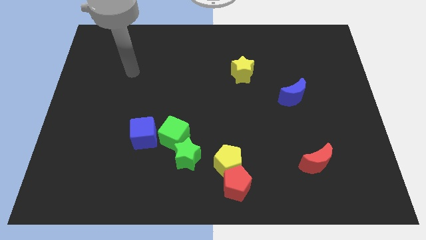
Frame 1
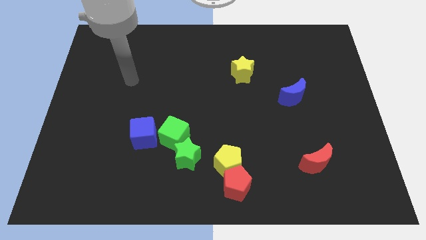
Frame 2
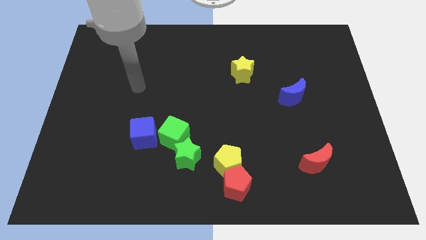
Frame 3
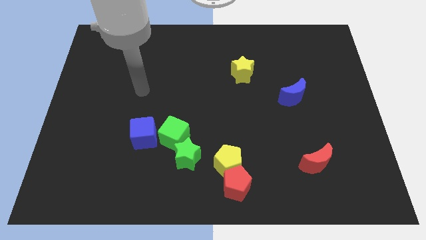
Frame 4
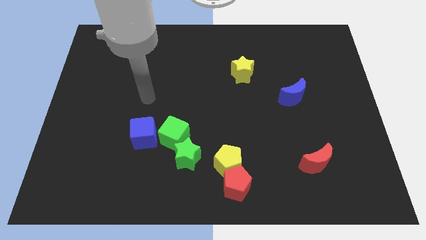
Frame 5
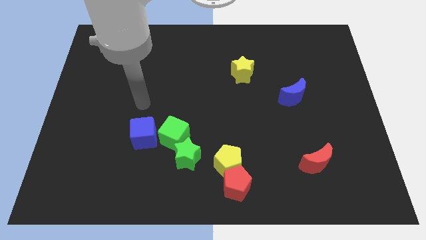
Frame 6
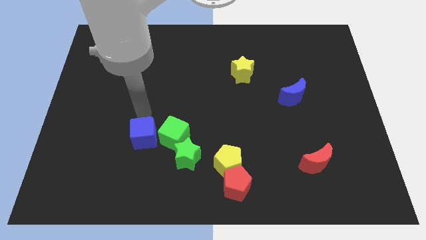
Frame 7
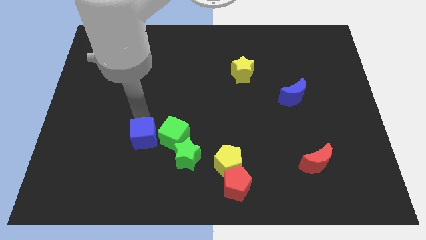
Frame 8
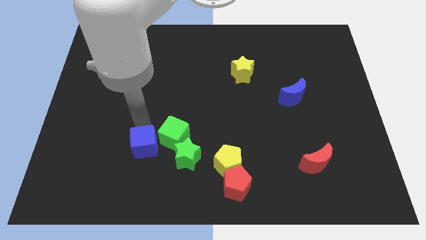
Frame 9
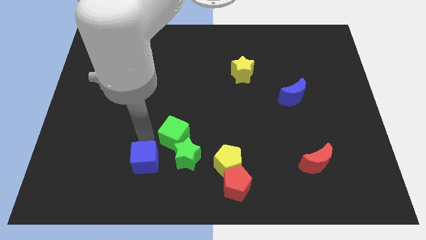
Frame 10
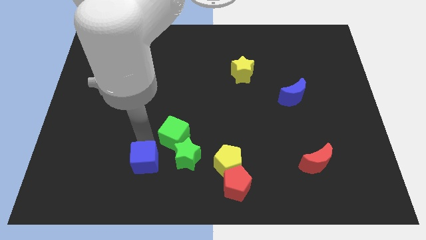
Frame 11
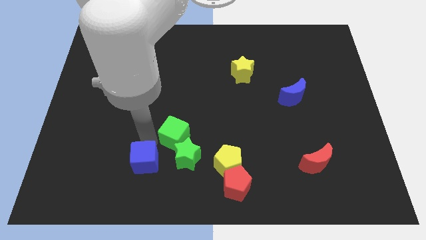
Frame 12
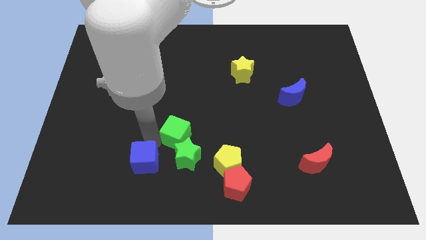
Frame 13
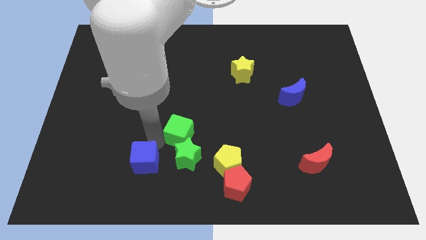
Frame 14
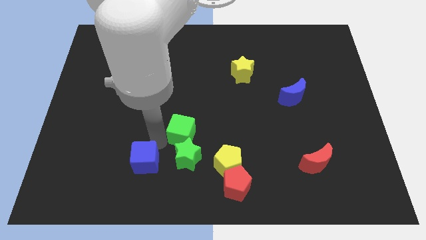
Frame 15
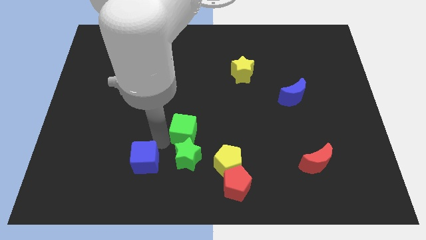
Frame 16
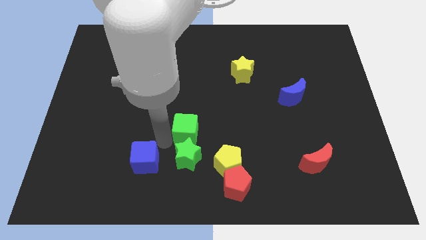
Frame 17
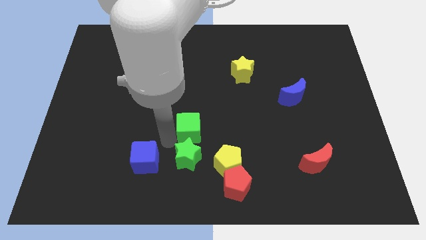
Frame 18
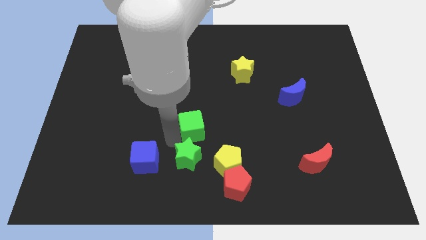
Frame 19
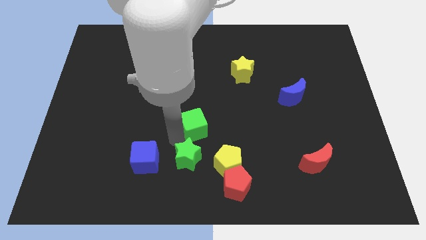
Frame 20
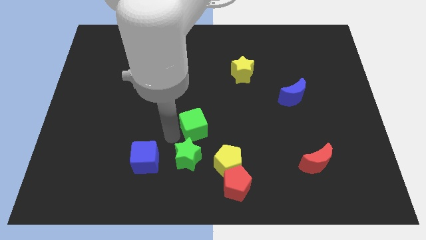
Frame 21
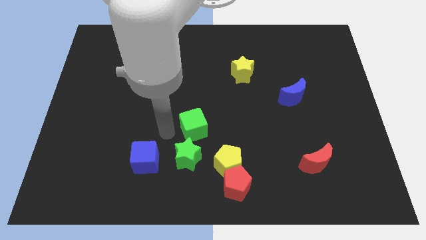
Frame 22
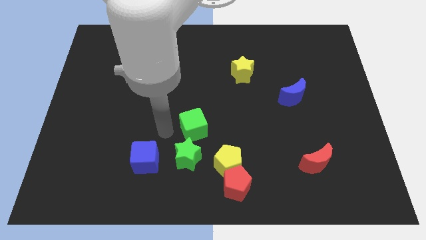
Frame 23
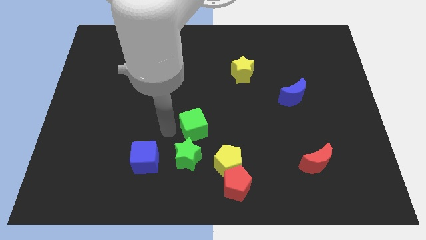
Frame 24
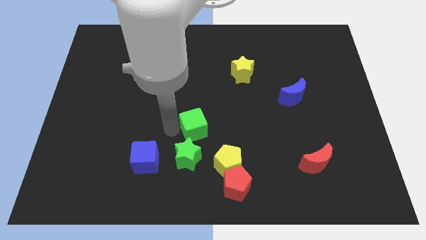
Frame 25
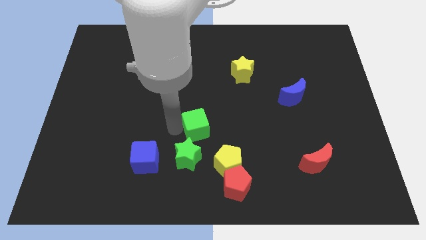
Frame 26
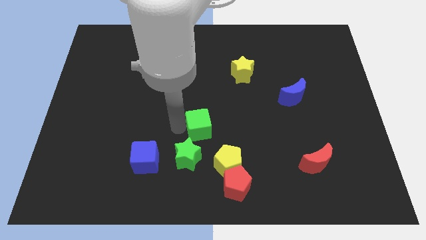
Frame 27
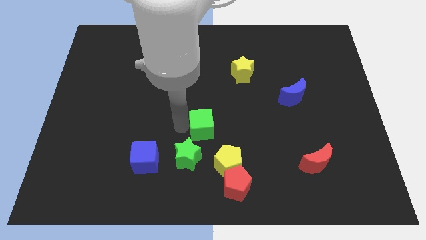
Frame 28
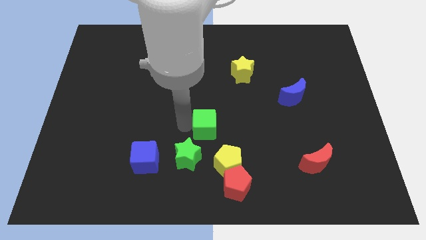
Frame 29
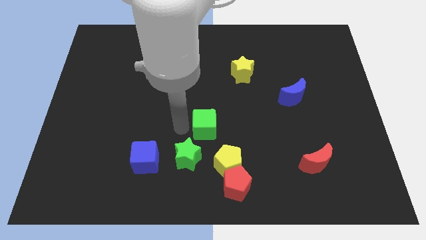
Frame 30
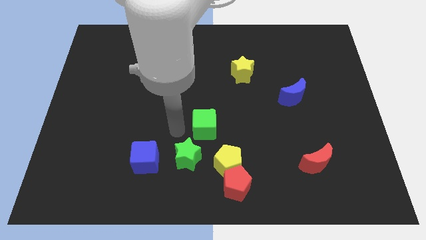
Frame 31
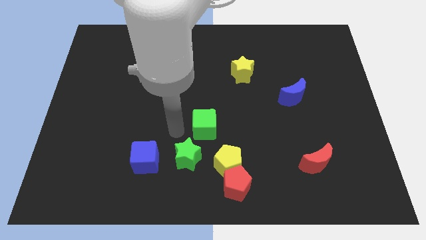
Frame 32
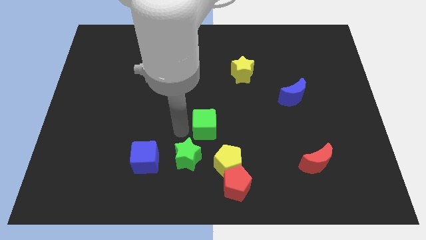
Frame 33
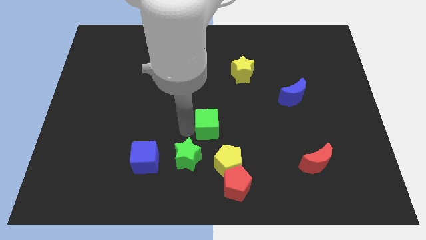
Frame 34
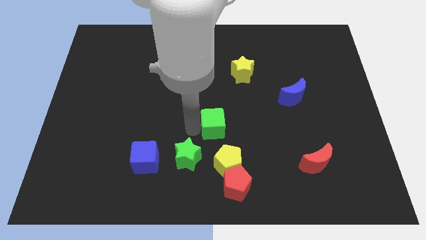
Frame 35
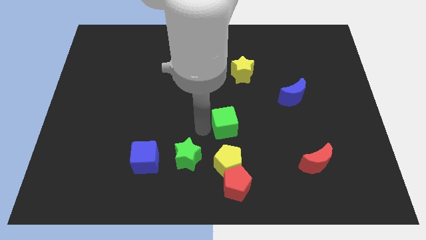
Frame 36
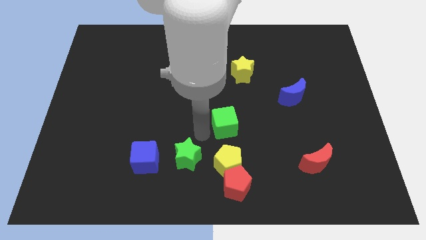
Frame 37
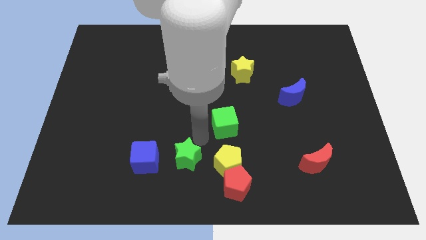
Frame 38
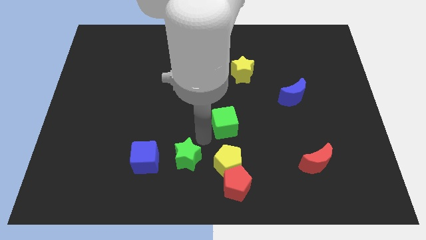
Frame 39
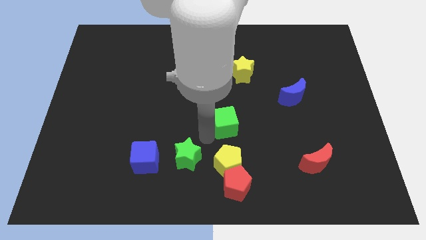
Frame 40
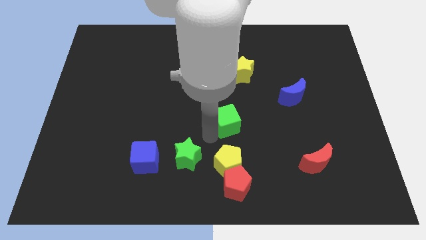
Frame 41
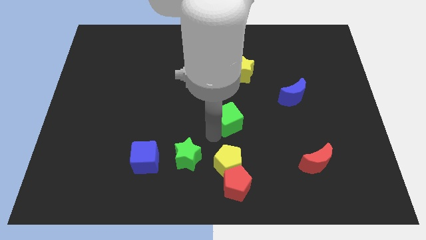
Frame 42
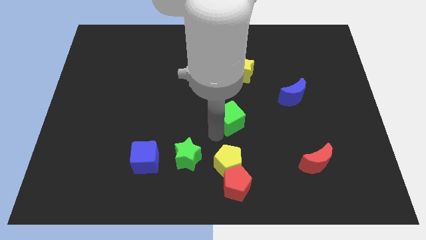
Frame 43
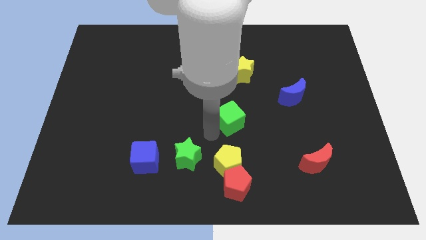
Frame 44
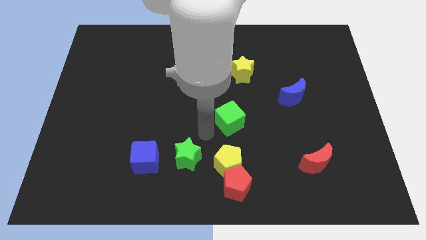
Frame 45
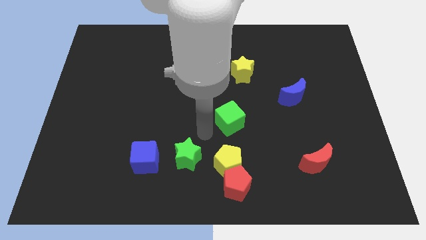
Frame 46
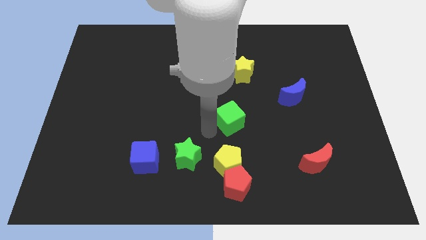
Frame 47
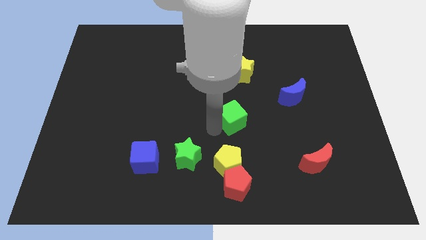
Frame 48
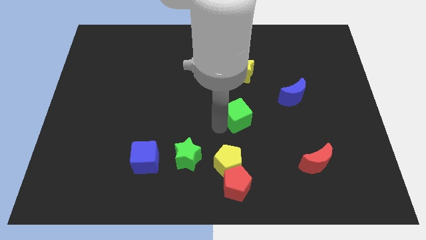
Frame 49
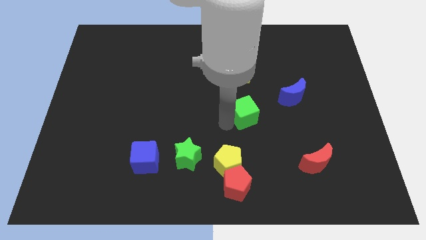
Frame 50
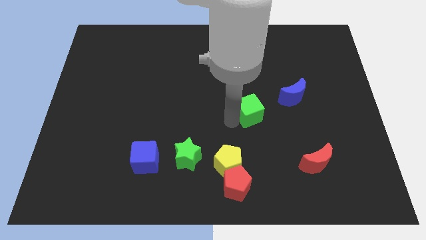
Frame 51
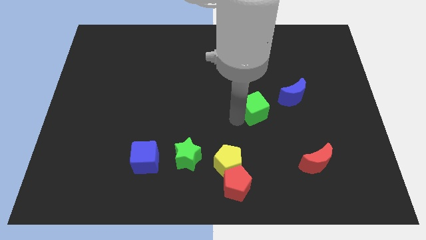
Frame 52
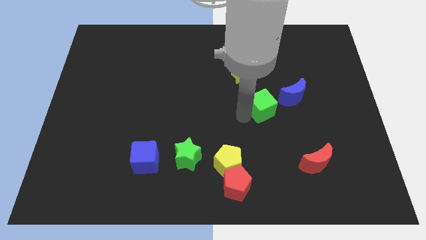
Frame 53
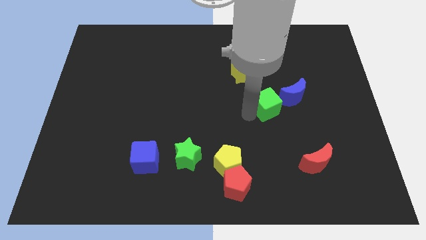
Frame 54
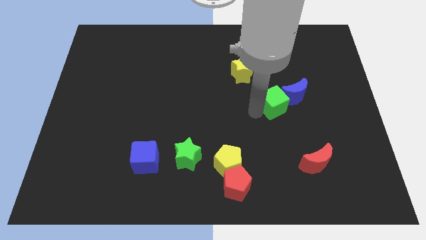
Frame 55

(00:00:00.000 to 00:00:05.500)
slide the green cube towards the blue moon

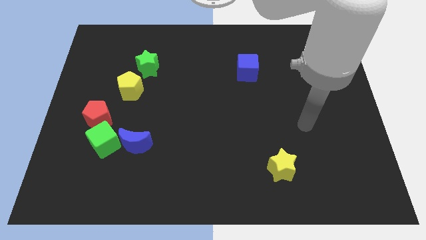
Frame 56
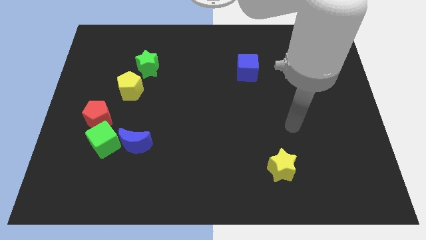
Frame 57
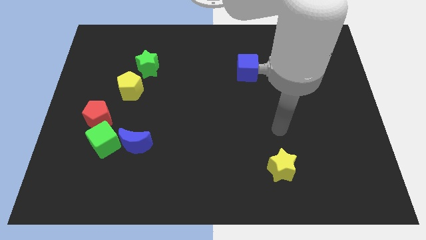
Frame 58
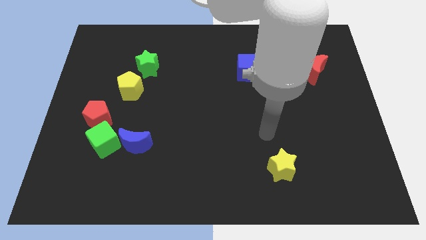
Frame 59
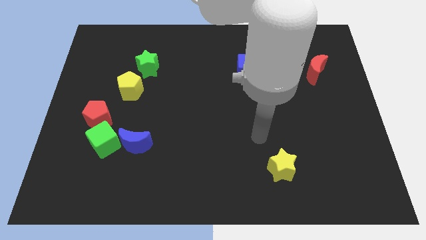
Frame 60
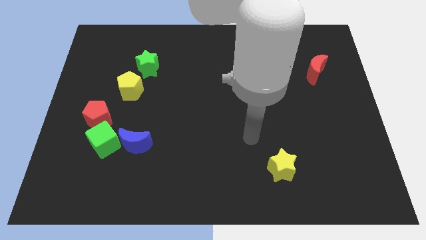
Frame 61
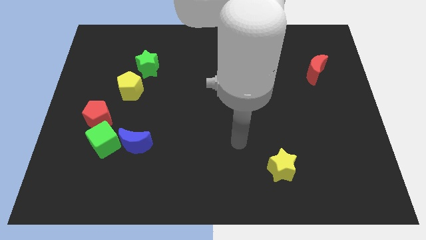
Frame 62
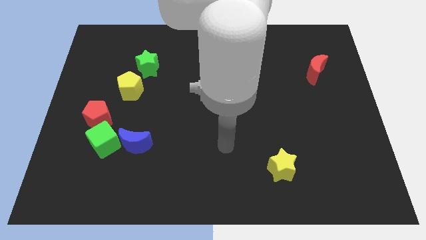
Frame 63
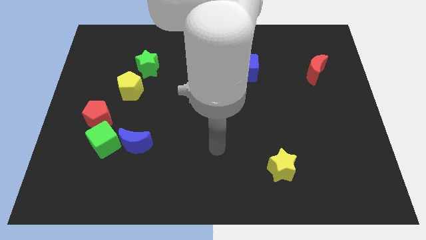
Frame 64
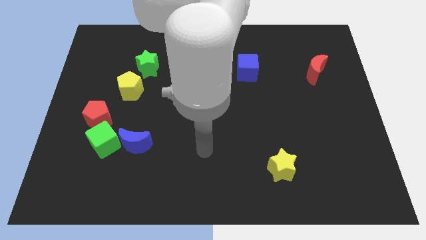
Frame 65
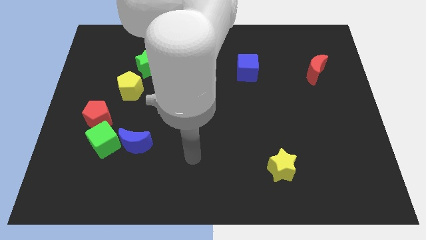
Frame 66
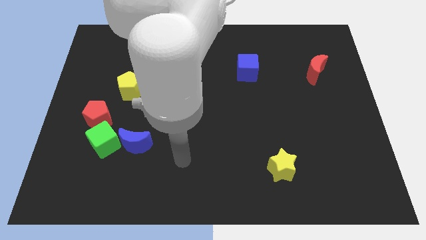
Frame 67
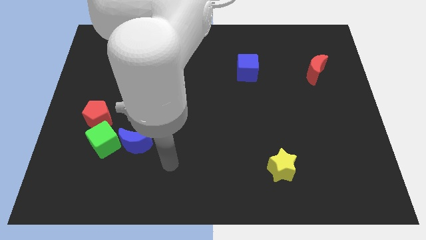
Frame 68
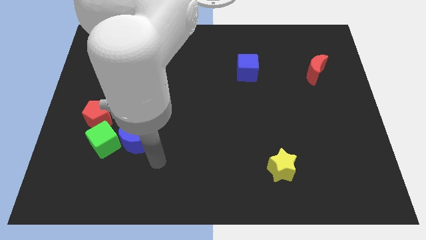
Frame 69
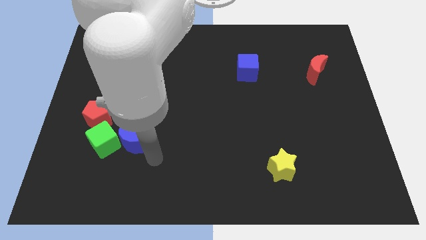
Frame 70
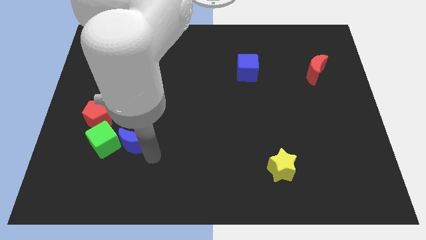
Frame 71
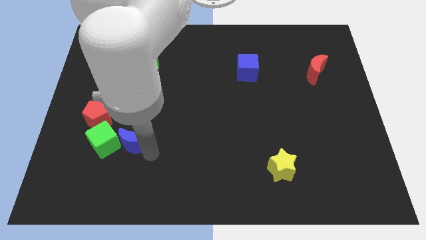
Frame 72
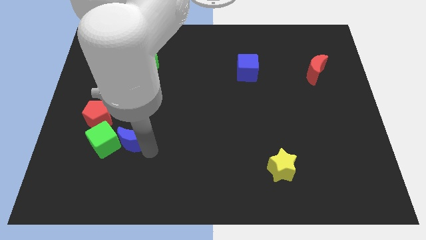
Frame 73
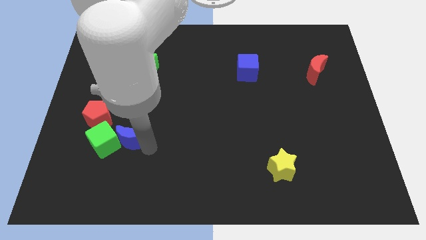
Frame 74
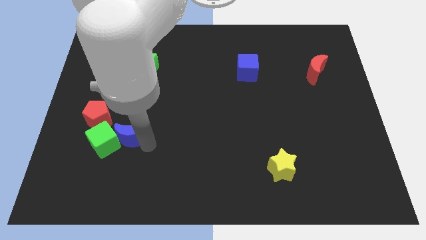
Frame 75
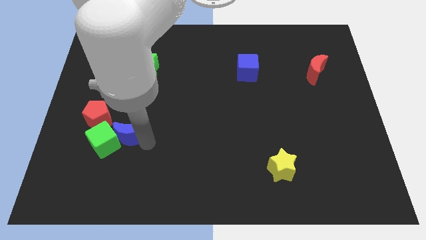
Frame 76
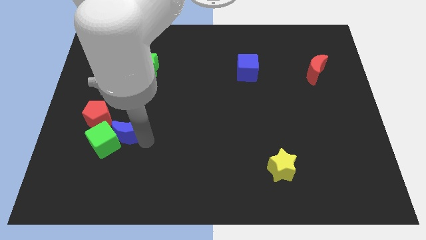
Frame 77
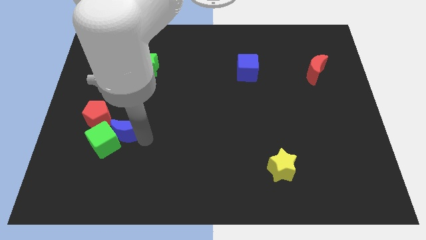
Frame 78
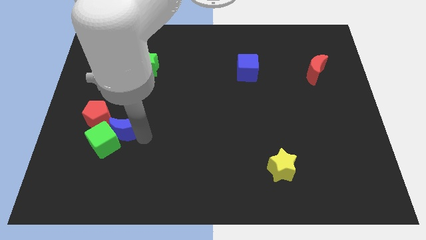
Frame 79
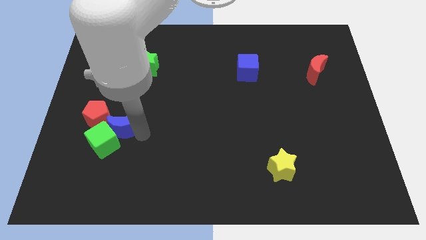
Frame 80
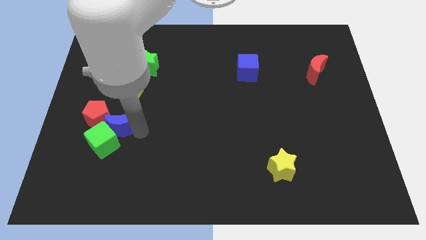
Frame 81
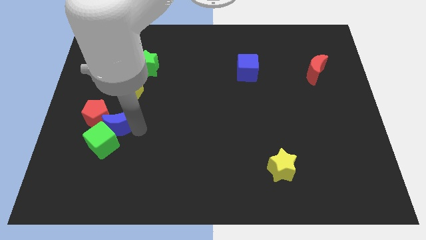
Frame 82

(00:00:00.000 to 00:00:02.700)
put the blue moon towards the red pentagon
